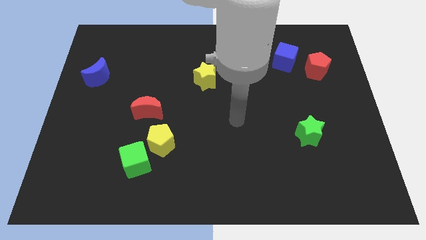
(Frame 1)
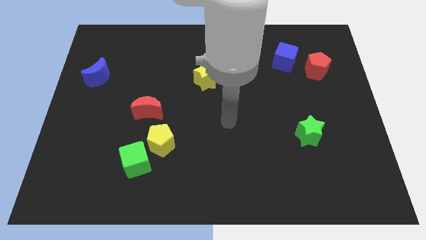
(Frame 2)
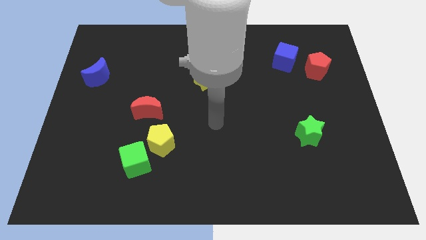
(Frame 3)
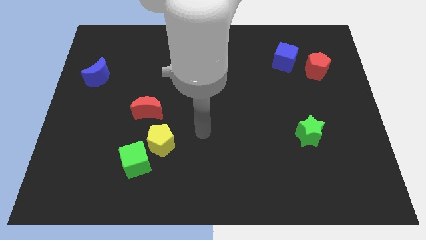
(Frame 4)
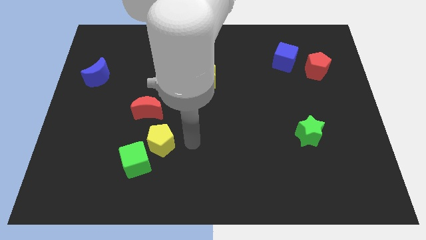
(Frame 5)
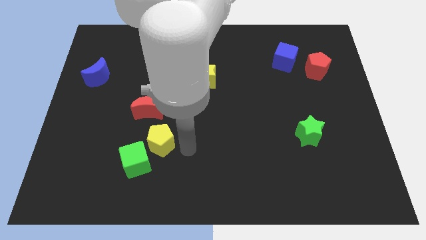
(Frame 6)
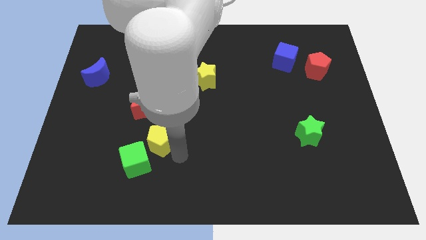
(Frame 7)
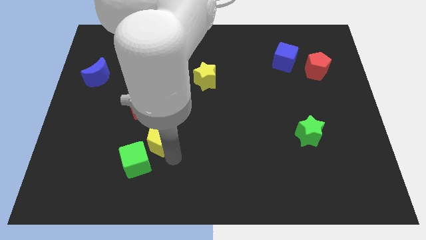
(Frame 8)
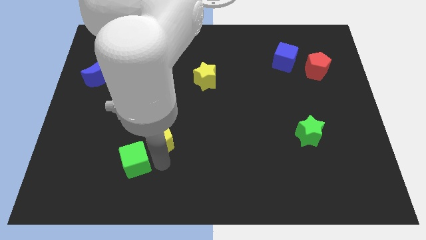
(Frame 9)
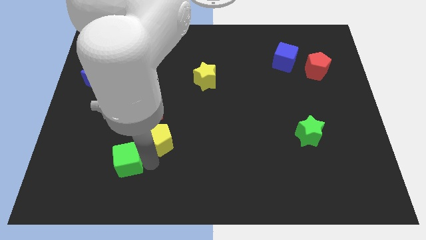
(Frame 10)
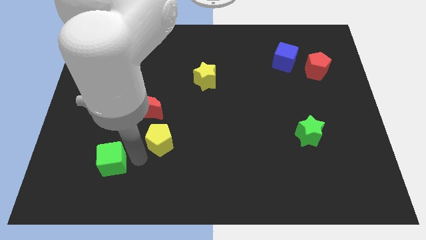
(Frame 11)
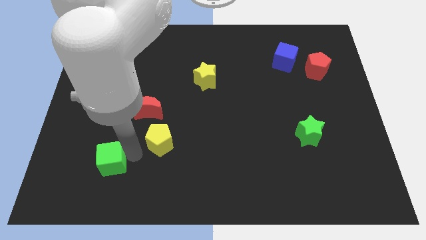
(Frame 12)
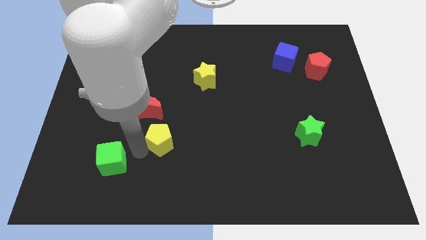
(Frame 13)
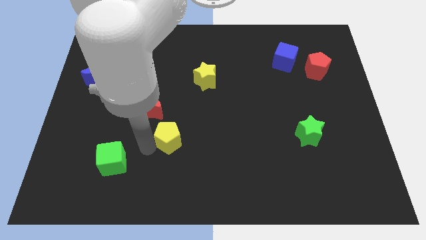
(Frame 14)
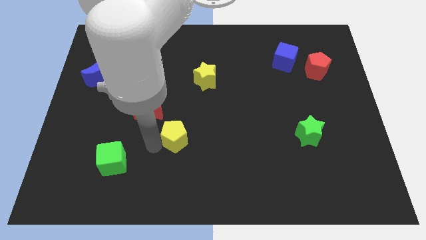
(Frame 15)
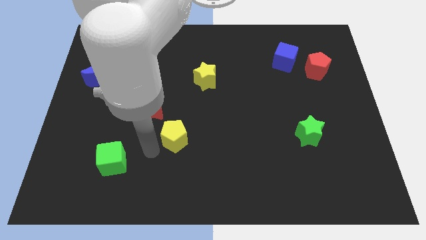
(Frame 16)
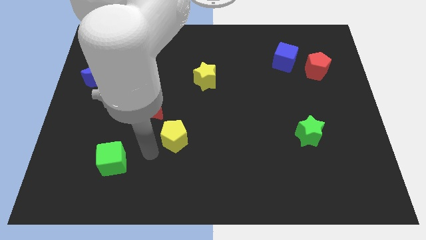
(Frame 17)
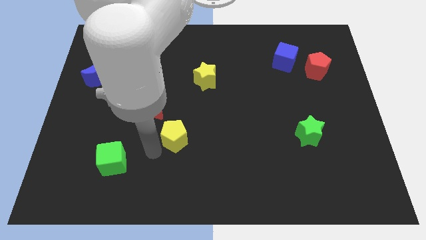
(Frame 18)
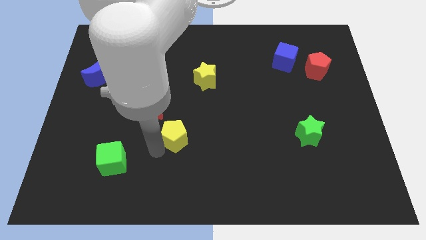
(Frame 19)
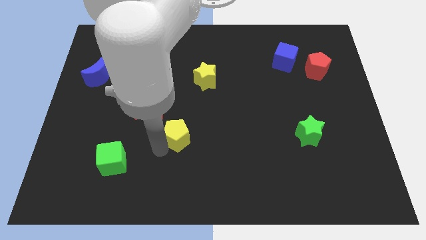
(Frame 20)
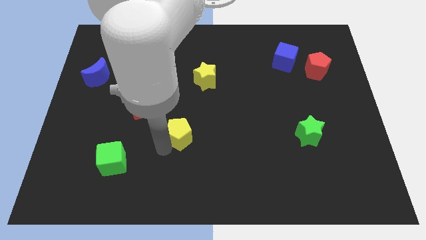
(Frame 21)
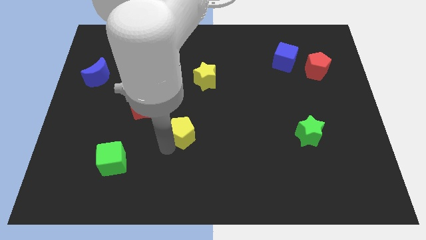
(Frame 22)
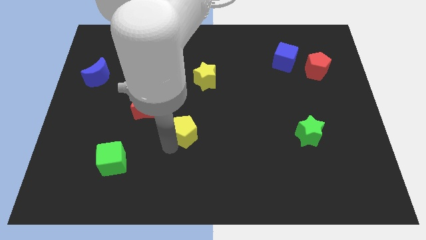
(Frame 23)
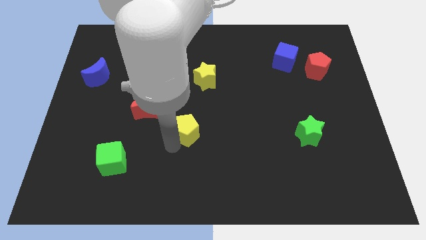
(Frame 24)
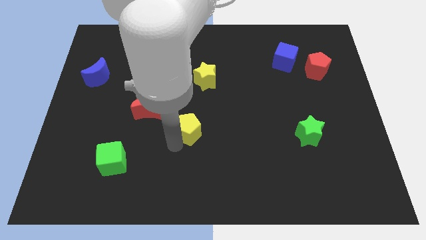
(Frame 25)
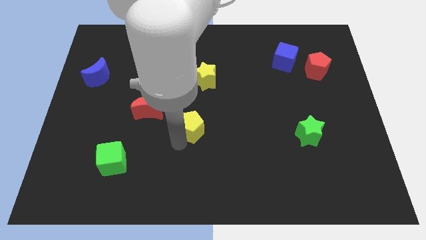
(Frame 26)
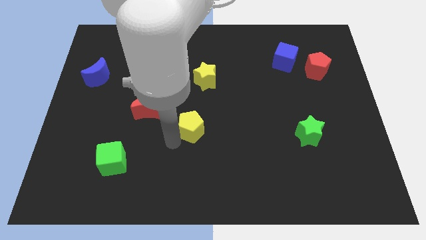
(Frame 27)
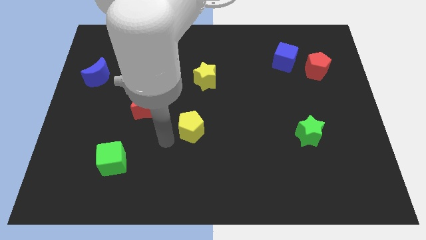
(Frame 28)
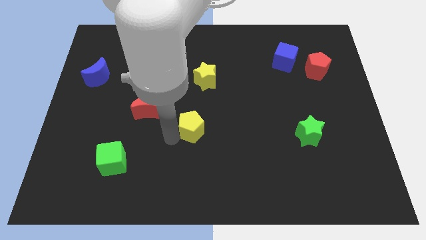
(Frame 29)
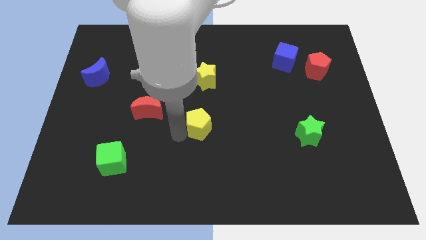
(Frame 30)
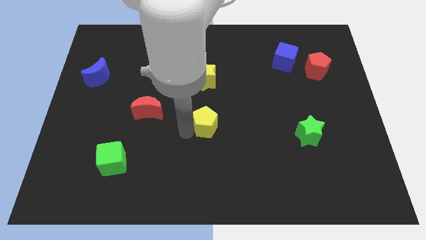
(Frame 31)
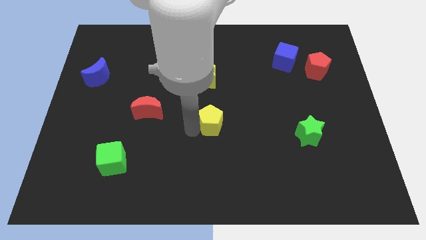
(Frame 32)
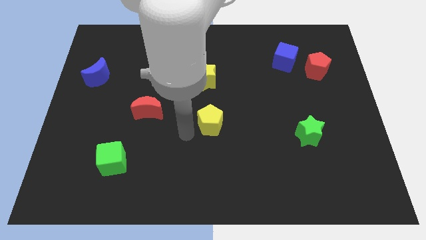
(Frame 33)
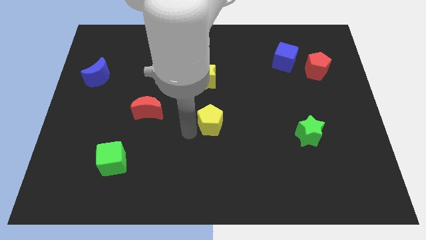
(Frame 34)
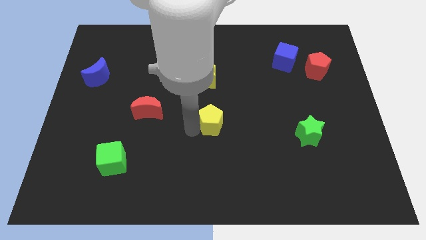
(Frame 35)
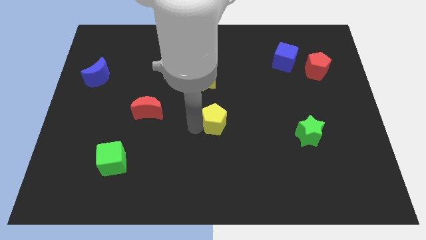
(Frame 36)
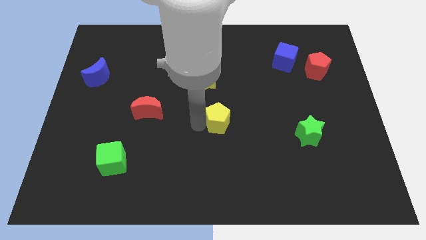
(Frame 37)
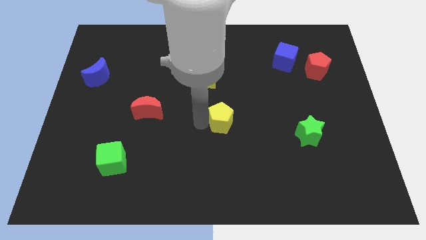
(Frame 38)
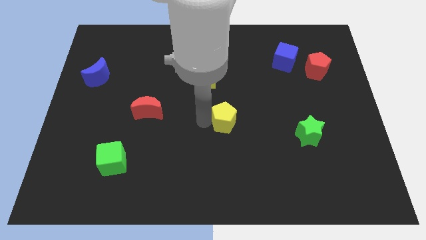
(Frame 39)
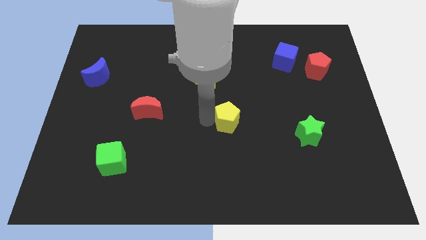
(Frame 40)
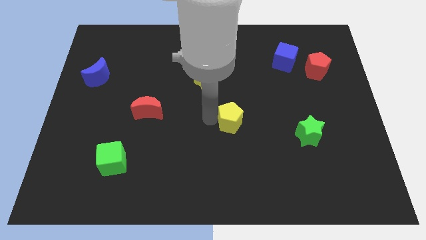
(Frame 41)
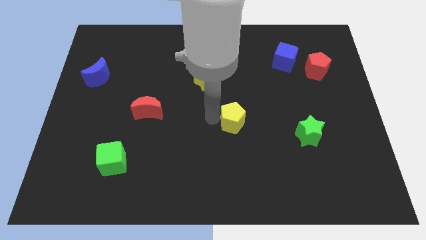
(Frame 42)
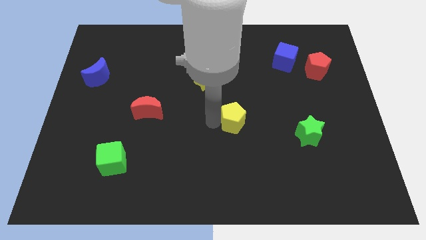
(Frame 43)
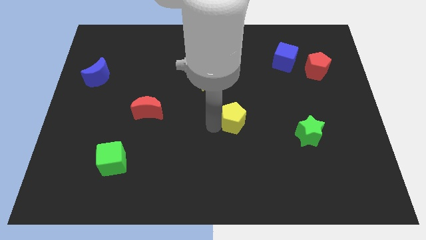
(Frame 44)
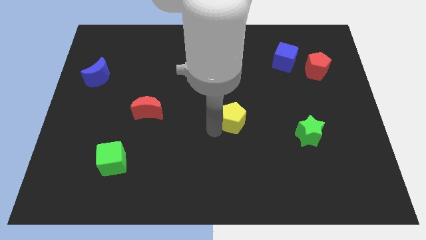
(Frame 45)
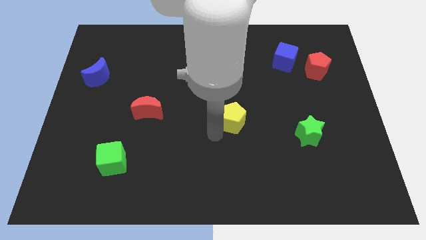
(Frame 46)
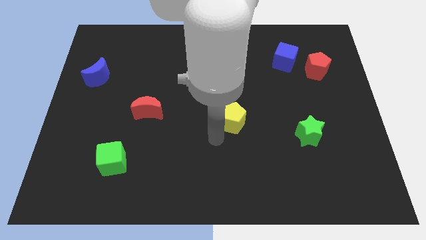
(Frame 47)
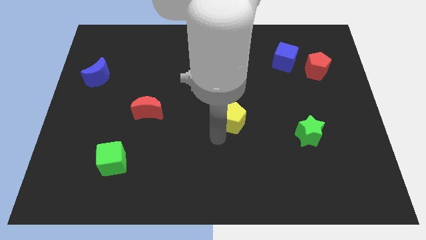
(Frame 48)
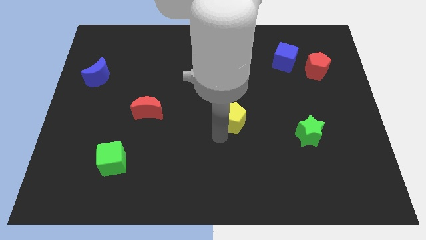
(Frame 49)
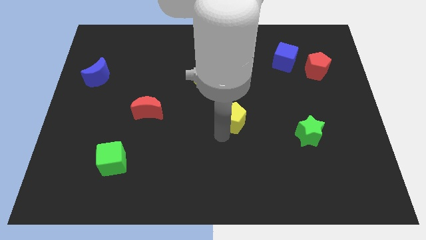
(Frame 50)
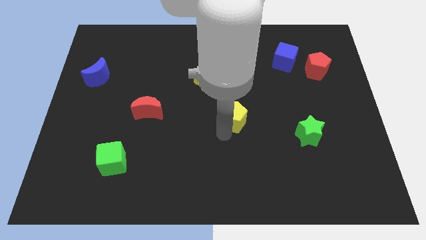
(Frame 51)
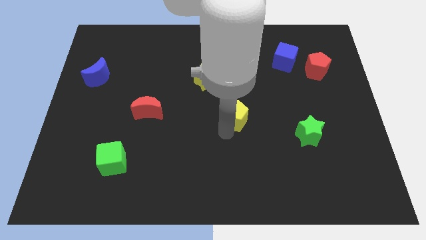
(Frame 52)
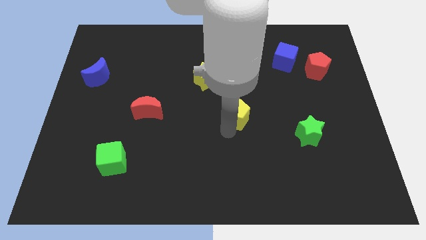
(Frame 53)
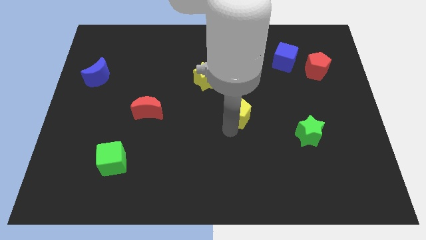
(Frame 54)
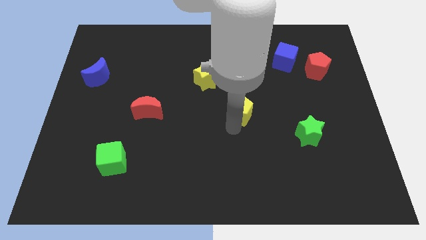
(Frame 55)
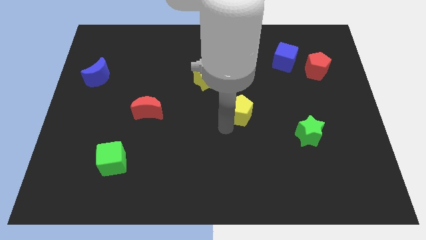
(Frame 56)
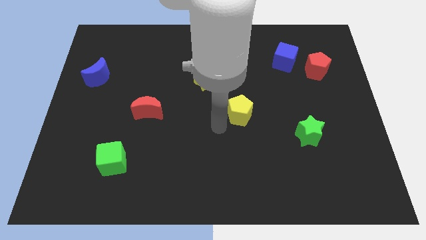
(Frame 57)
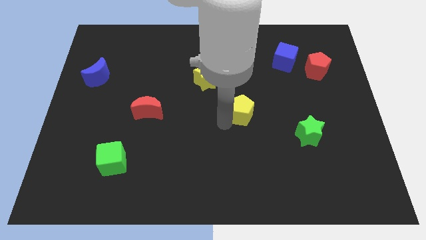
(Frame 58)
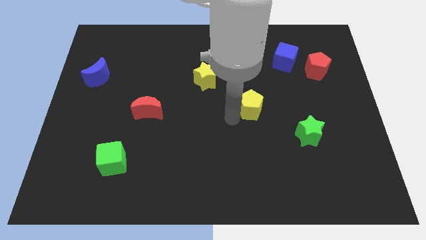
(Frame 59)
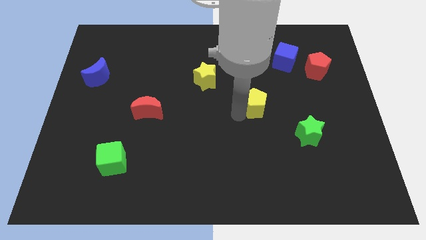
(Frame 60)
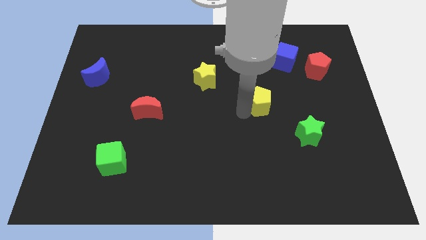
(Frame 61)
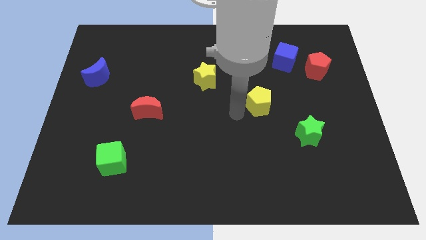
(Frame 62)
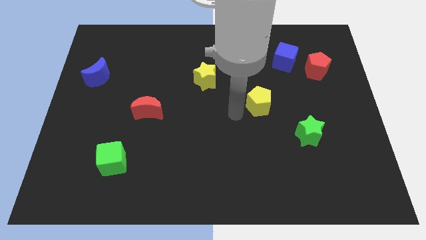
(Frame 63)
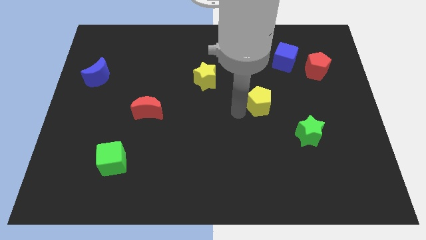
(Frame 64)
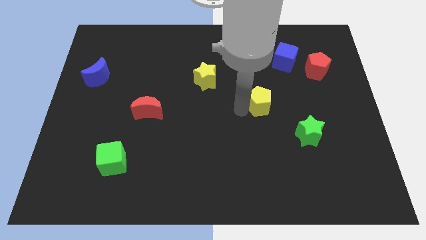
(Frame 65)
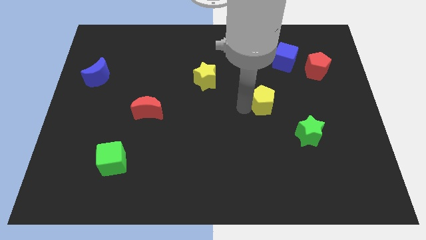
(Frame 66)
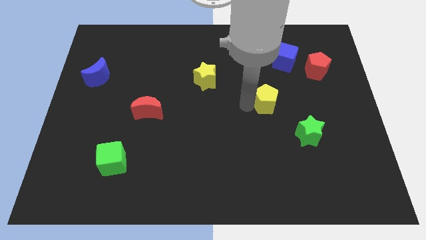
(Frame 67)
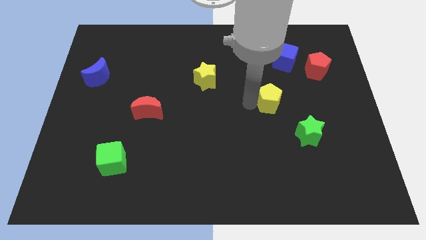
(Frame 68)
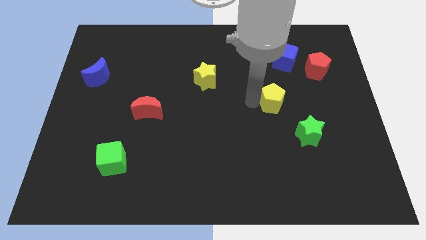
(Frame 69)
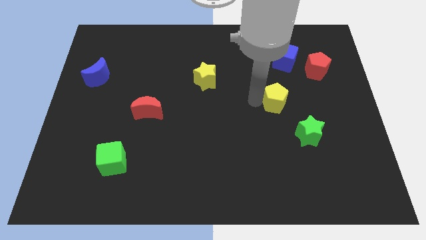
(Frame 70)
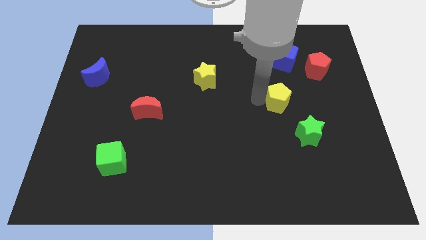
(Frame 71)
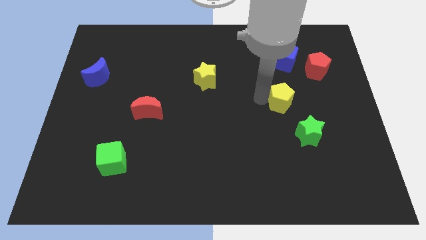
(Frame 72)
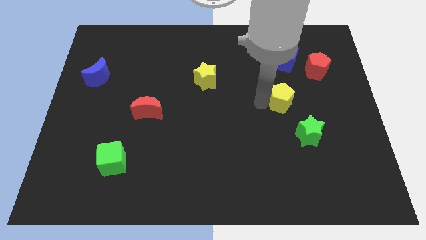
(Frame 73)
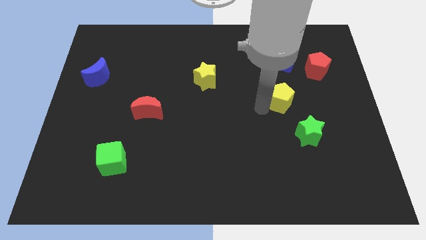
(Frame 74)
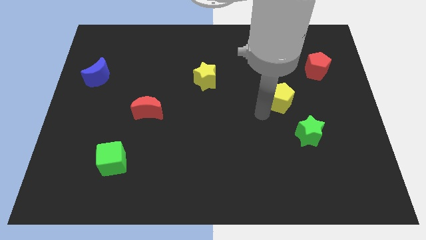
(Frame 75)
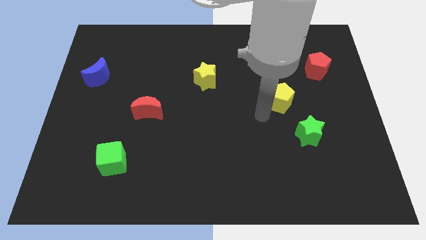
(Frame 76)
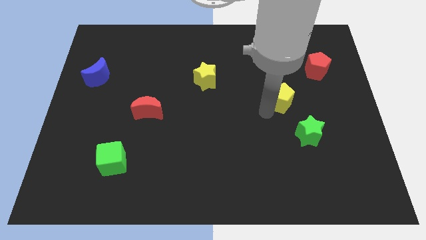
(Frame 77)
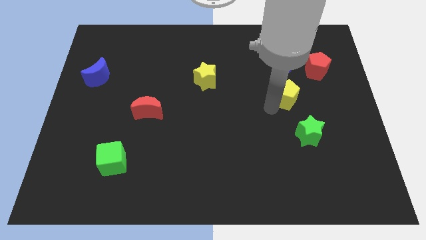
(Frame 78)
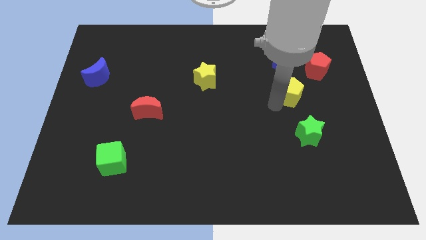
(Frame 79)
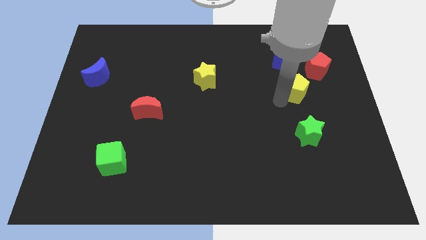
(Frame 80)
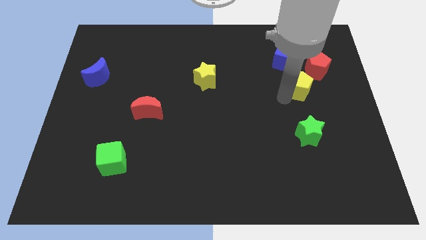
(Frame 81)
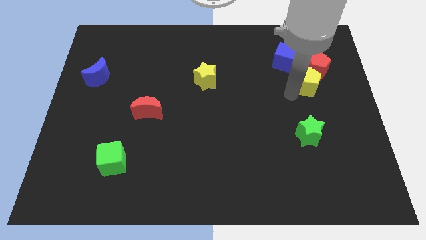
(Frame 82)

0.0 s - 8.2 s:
push the yellow pentagon next to the red pentagon
